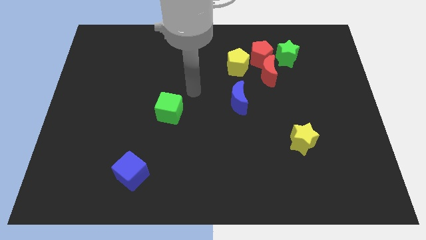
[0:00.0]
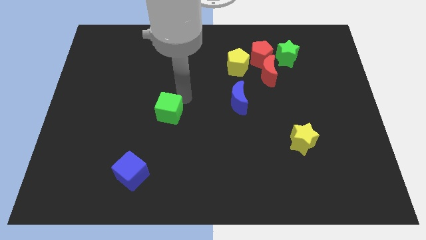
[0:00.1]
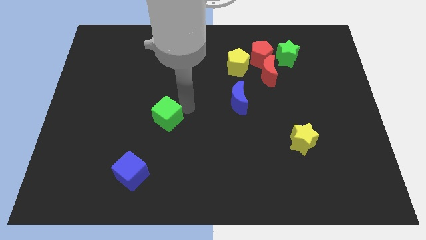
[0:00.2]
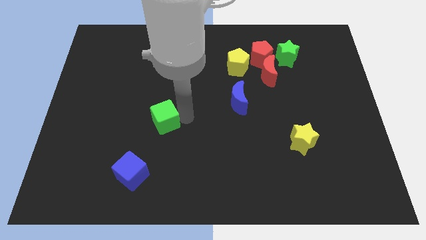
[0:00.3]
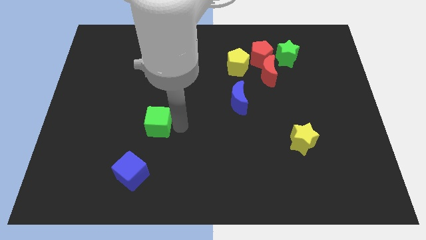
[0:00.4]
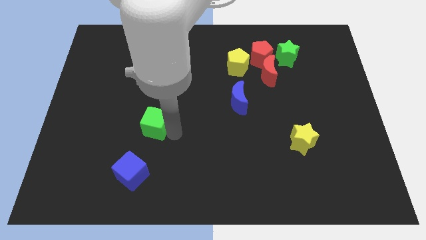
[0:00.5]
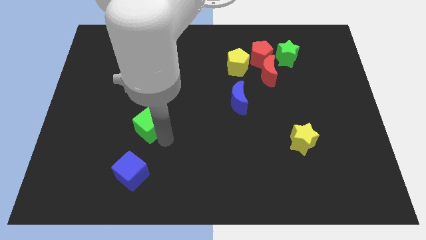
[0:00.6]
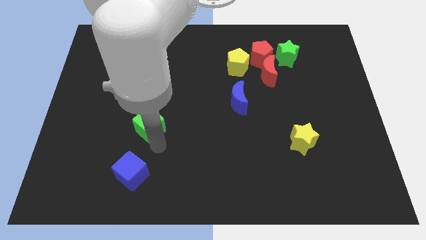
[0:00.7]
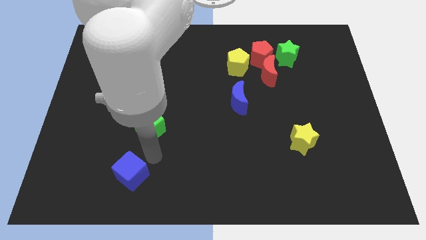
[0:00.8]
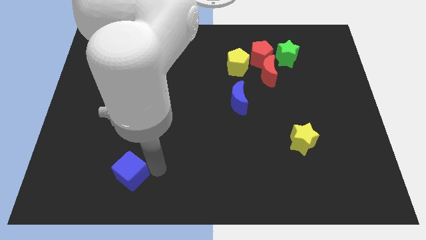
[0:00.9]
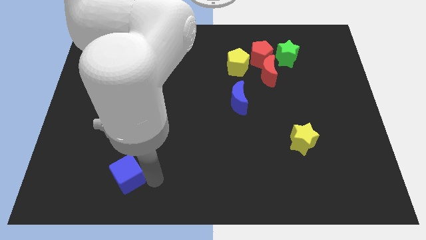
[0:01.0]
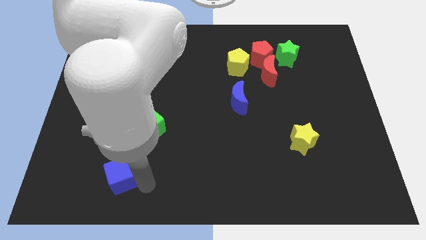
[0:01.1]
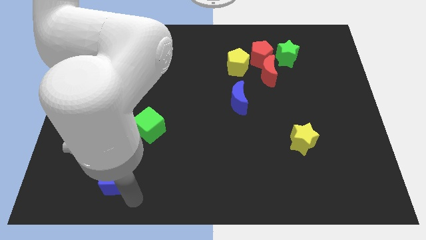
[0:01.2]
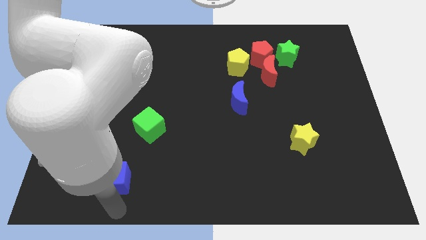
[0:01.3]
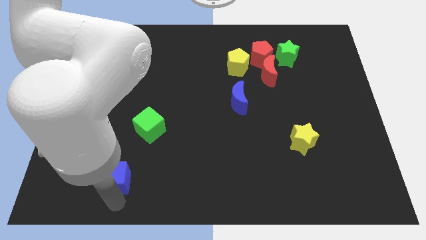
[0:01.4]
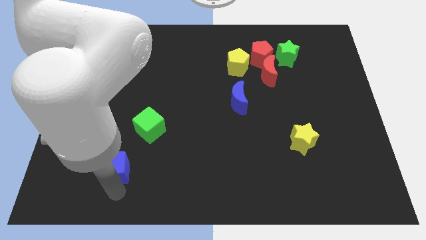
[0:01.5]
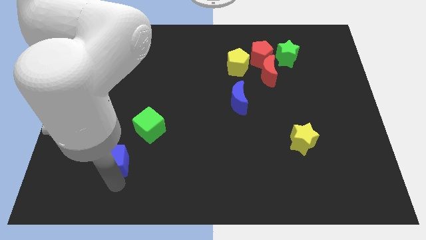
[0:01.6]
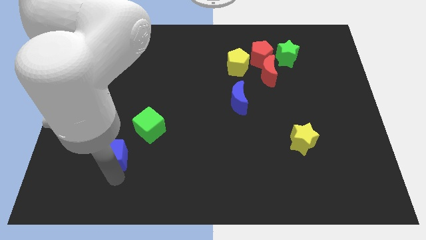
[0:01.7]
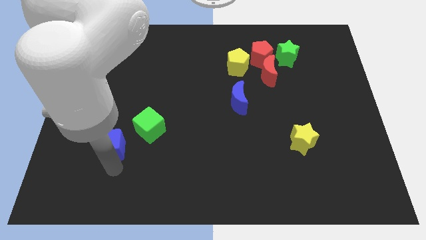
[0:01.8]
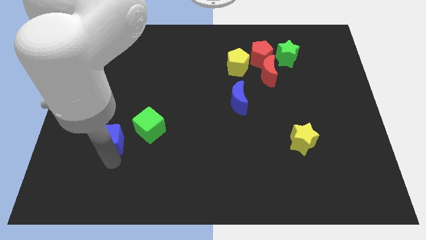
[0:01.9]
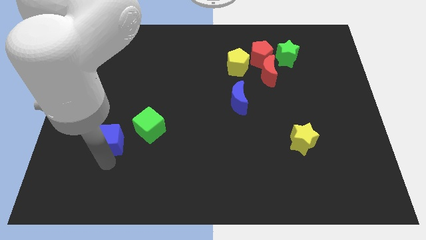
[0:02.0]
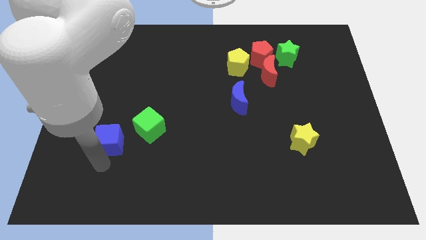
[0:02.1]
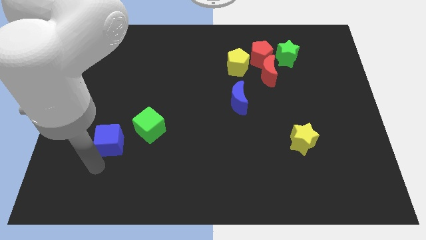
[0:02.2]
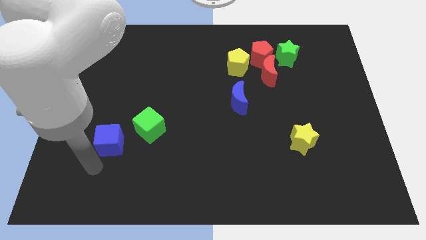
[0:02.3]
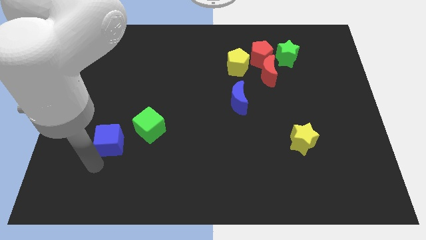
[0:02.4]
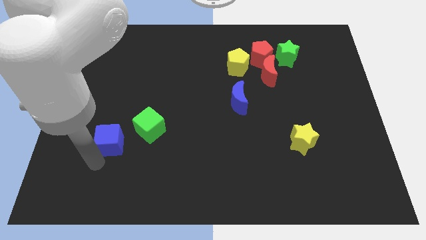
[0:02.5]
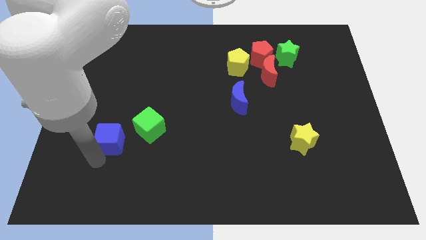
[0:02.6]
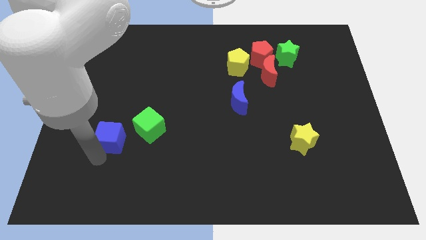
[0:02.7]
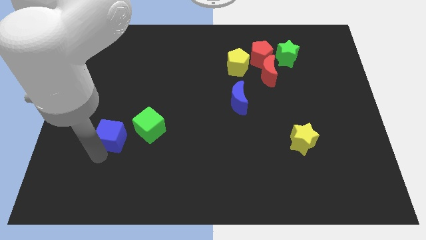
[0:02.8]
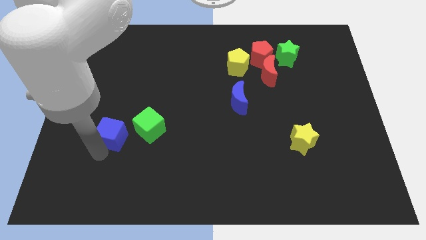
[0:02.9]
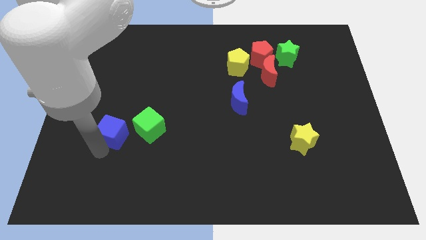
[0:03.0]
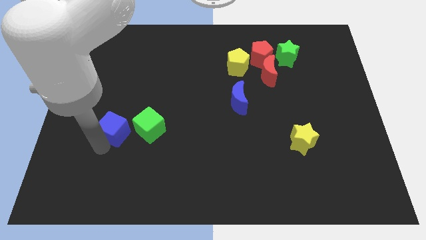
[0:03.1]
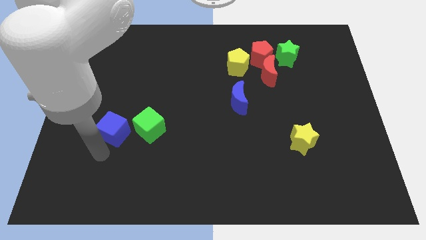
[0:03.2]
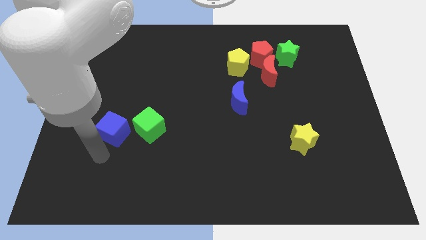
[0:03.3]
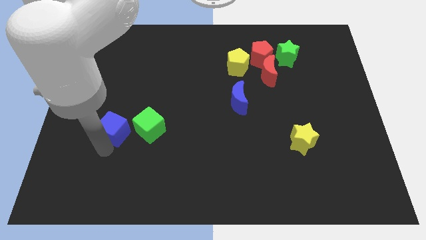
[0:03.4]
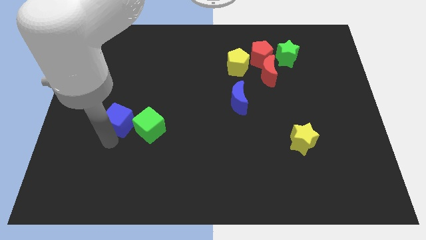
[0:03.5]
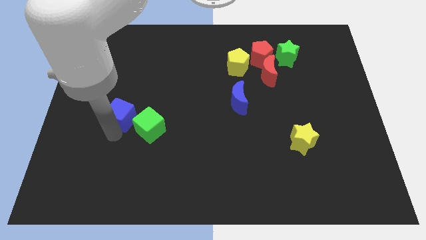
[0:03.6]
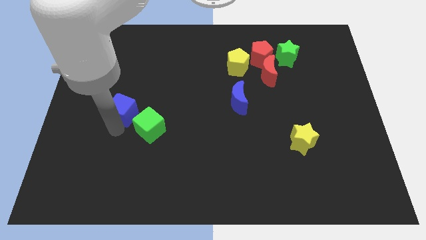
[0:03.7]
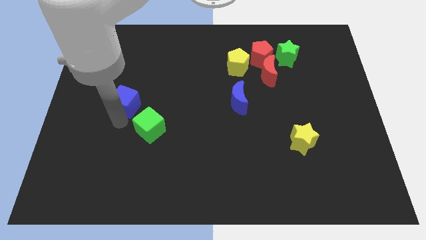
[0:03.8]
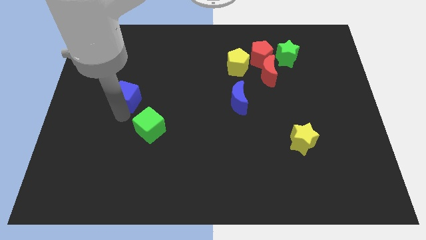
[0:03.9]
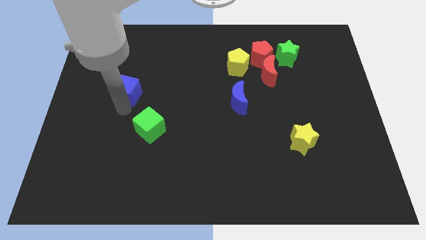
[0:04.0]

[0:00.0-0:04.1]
push the blue cube upwards

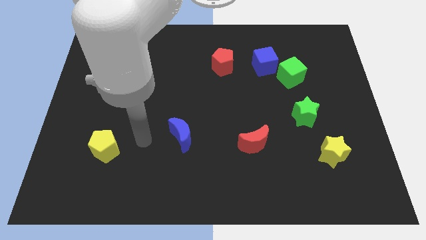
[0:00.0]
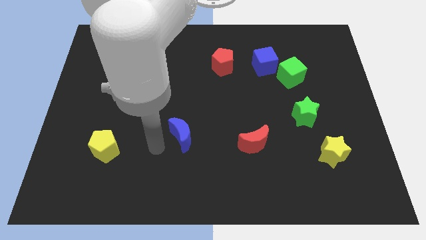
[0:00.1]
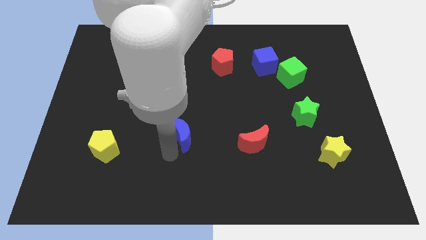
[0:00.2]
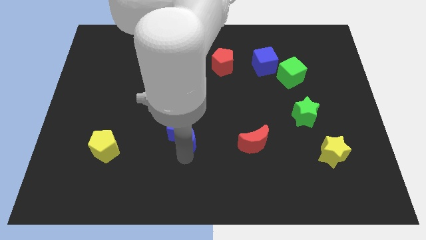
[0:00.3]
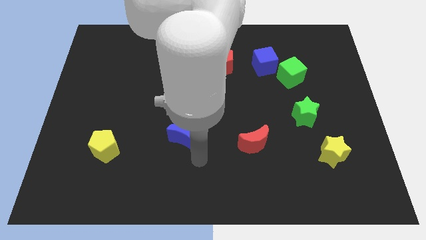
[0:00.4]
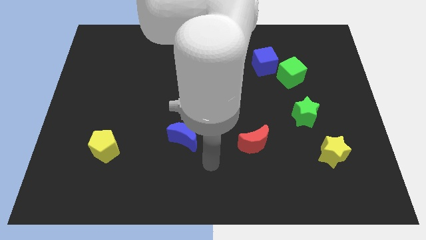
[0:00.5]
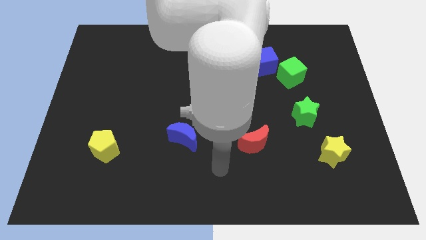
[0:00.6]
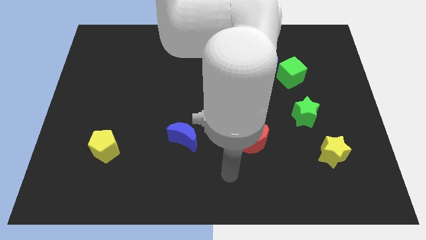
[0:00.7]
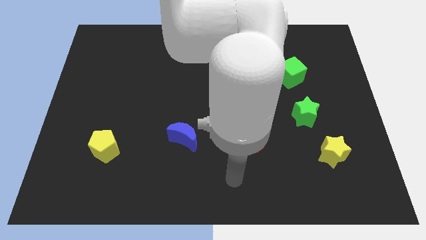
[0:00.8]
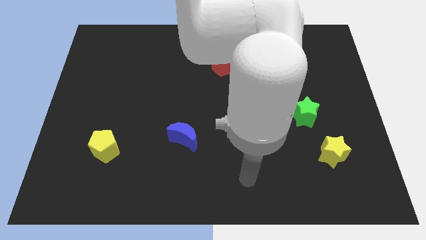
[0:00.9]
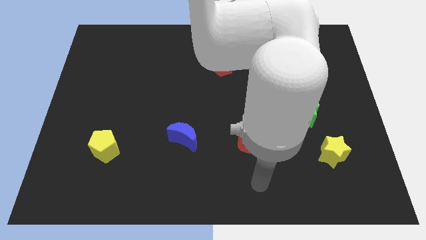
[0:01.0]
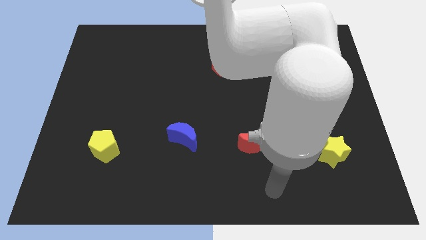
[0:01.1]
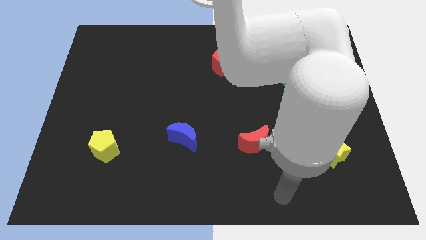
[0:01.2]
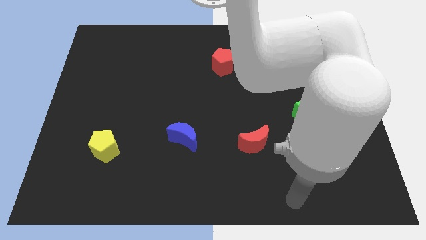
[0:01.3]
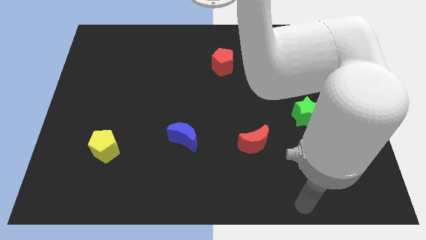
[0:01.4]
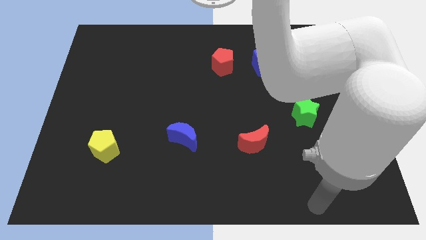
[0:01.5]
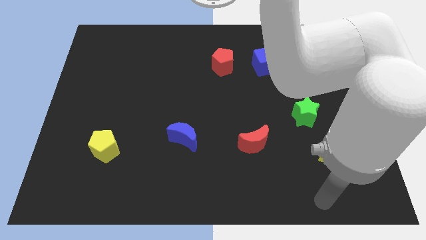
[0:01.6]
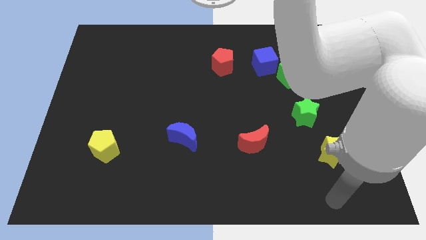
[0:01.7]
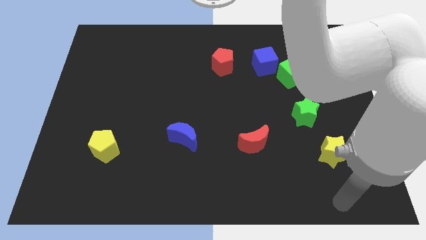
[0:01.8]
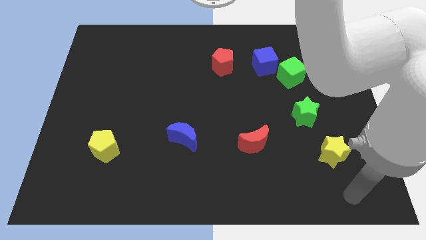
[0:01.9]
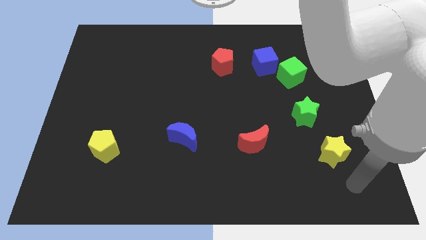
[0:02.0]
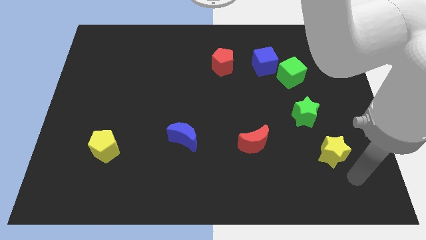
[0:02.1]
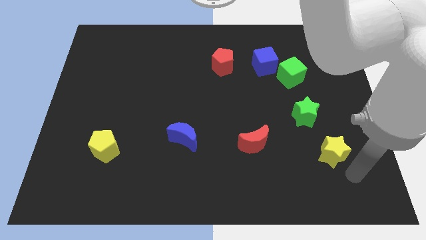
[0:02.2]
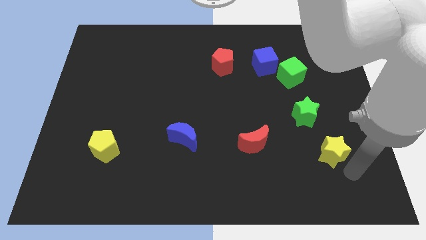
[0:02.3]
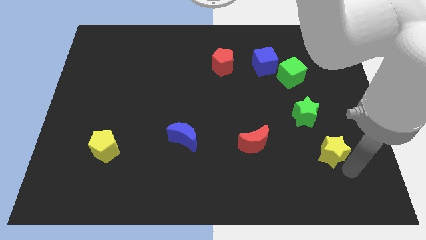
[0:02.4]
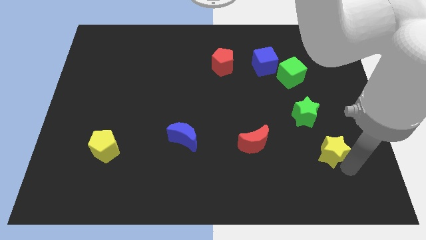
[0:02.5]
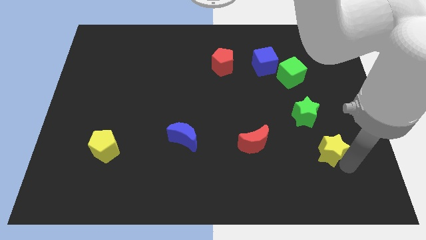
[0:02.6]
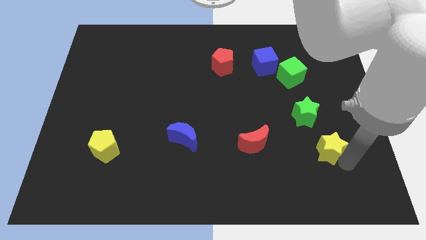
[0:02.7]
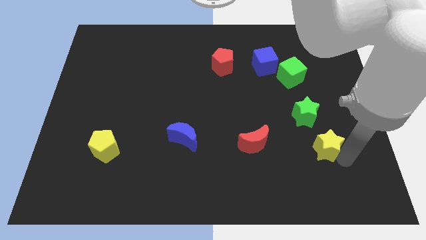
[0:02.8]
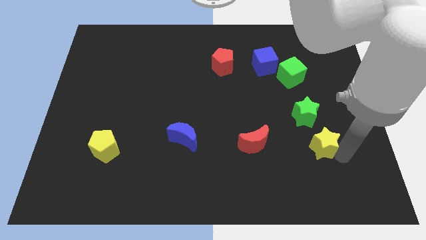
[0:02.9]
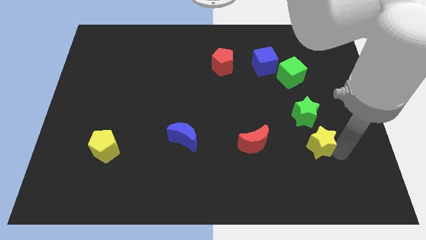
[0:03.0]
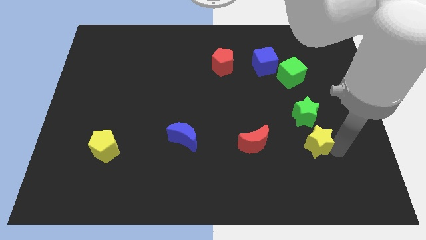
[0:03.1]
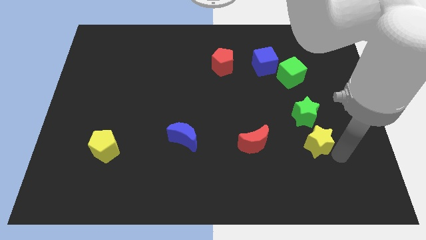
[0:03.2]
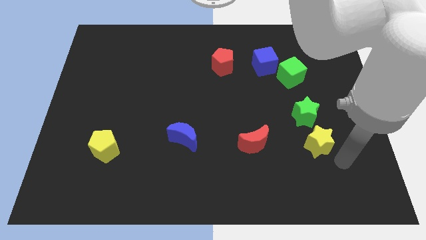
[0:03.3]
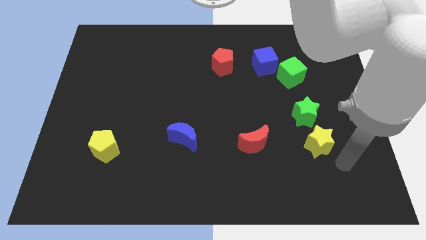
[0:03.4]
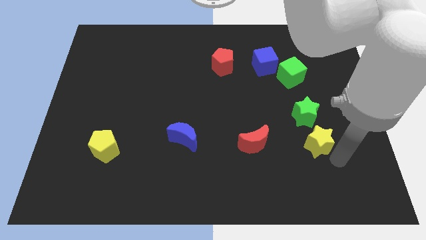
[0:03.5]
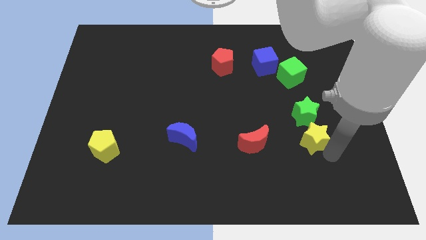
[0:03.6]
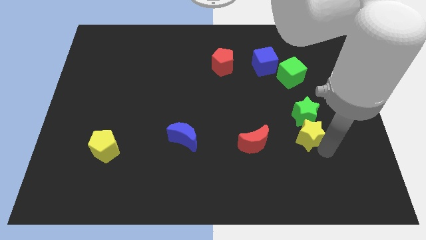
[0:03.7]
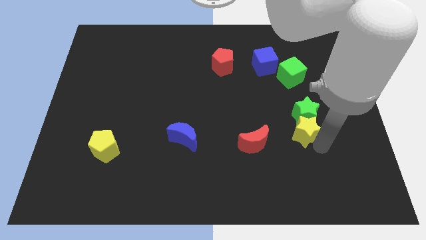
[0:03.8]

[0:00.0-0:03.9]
slightly push the yellow star upwards and then left

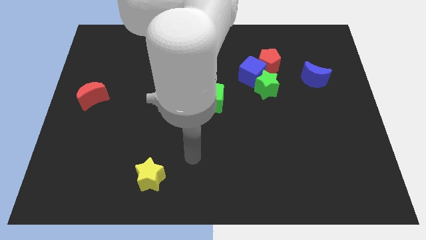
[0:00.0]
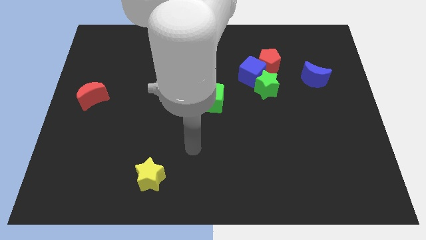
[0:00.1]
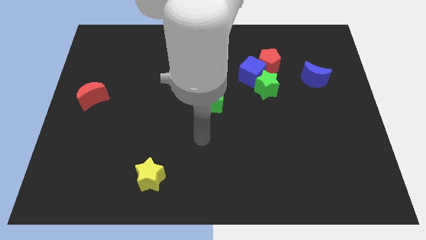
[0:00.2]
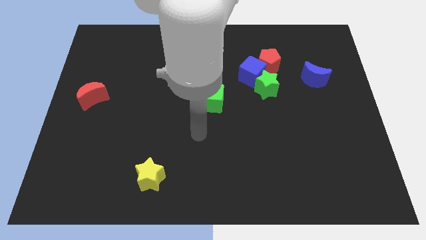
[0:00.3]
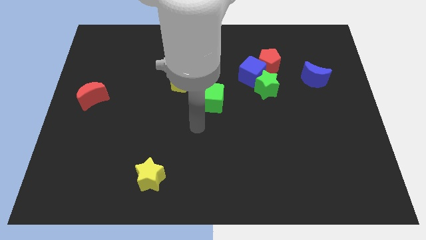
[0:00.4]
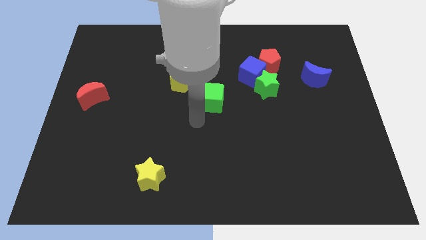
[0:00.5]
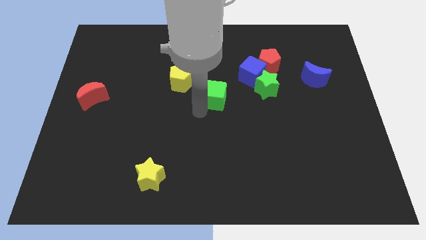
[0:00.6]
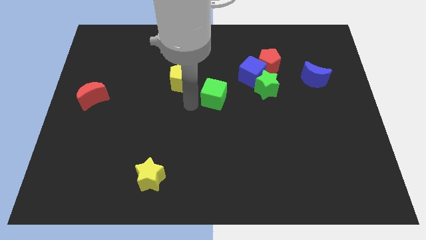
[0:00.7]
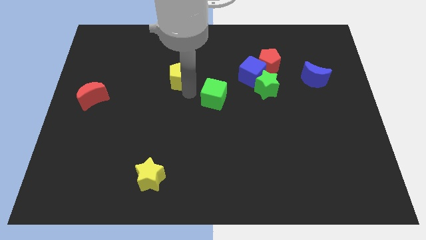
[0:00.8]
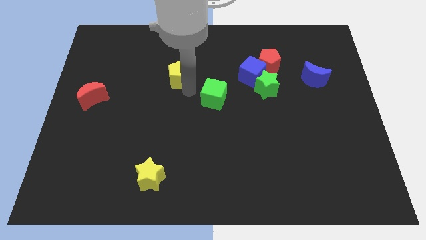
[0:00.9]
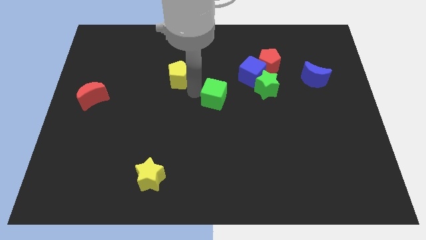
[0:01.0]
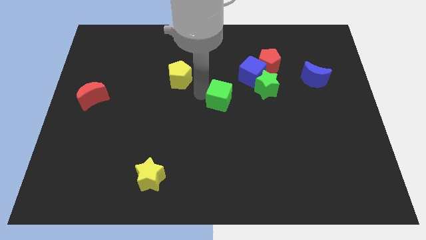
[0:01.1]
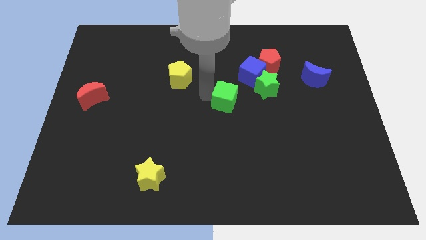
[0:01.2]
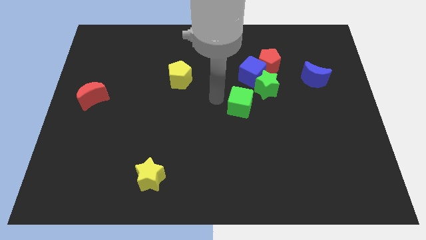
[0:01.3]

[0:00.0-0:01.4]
push the green cube somewhat right
